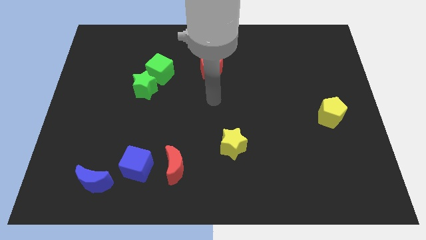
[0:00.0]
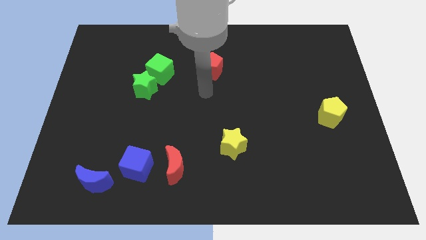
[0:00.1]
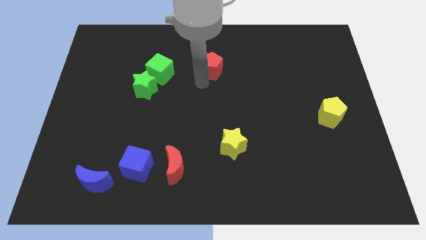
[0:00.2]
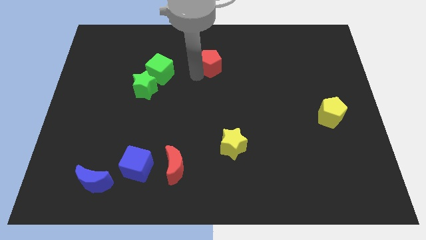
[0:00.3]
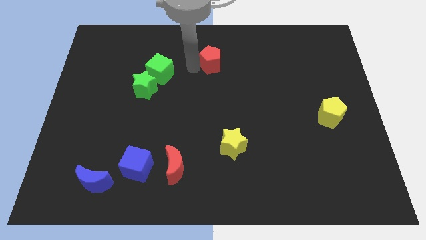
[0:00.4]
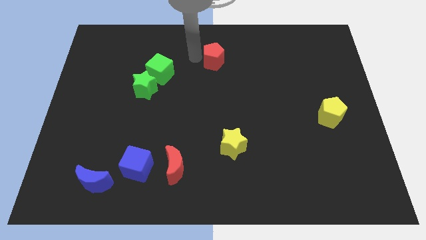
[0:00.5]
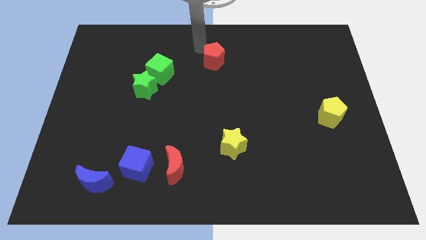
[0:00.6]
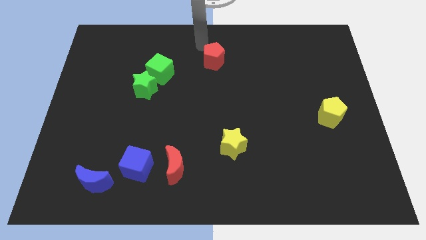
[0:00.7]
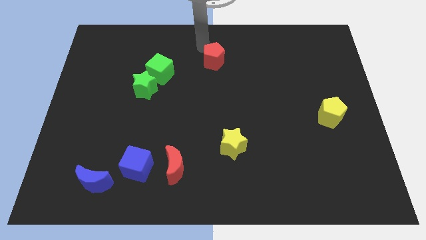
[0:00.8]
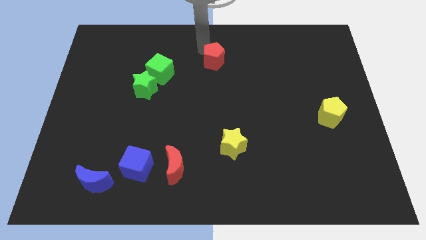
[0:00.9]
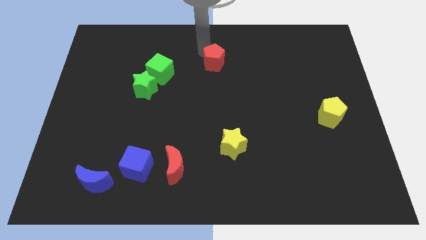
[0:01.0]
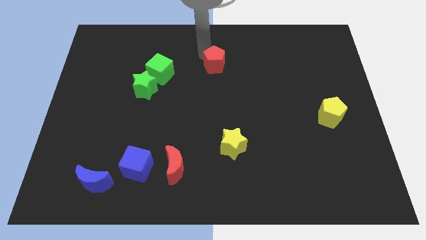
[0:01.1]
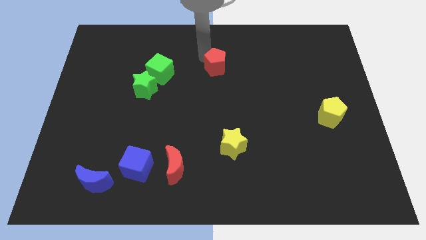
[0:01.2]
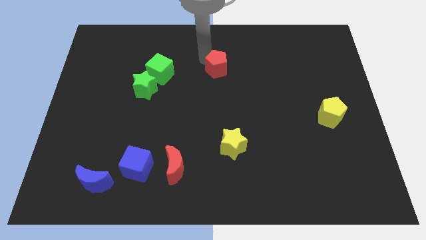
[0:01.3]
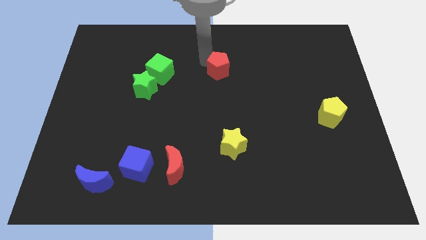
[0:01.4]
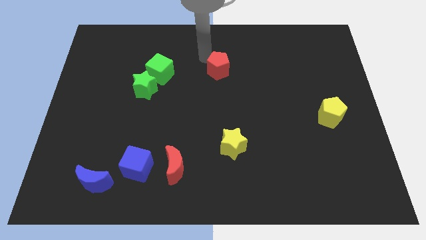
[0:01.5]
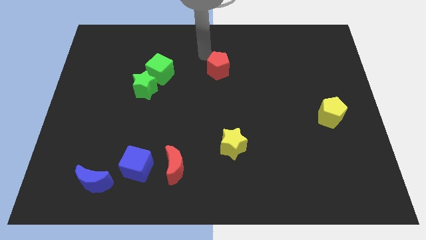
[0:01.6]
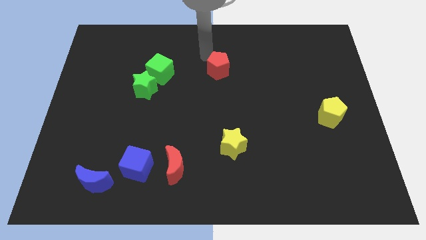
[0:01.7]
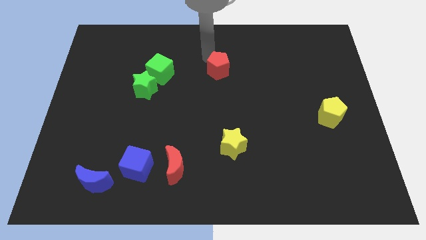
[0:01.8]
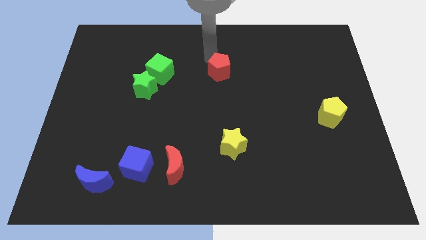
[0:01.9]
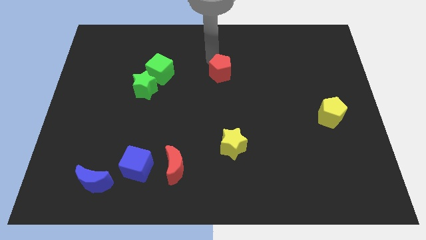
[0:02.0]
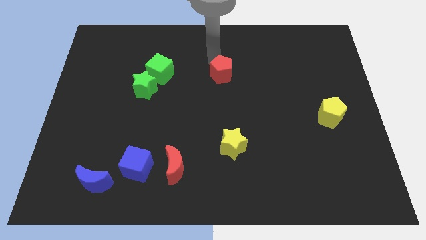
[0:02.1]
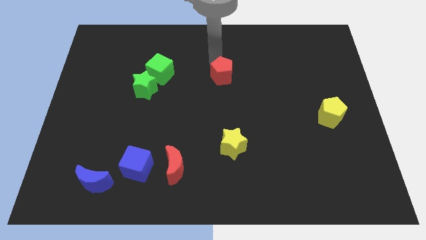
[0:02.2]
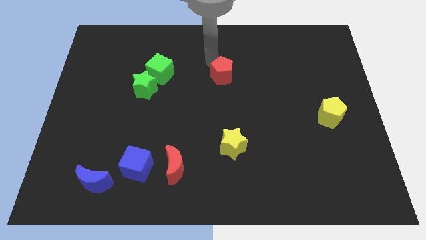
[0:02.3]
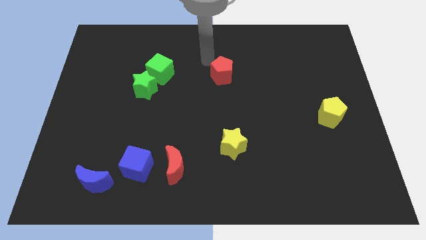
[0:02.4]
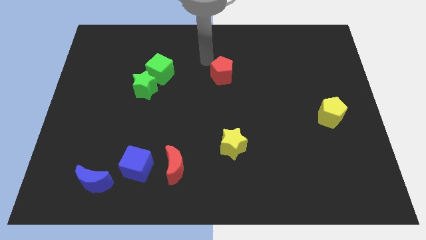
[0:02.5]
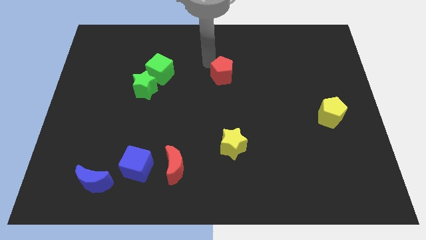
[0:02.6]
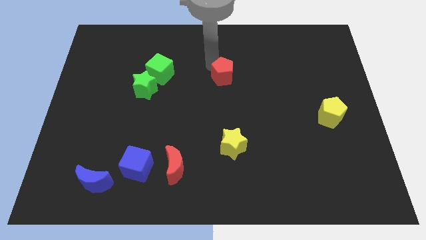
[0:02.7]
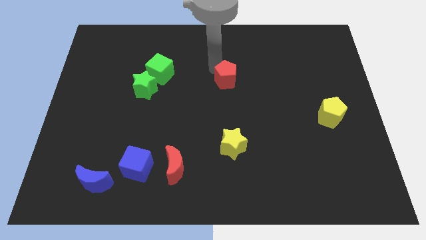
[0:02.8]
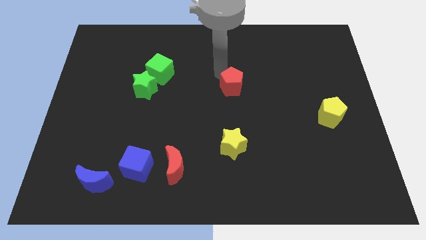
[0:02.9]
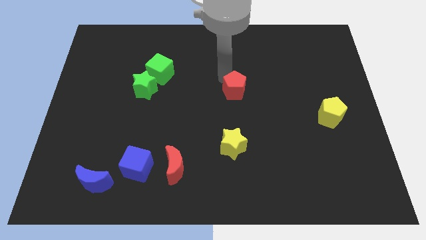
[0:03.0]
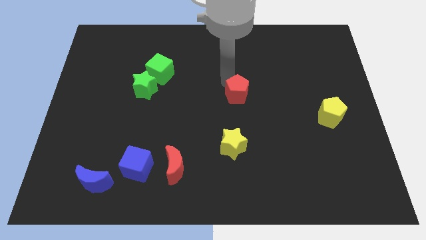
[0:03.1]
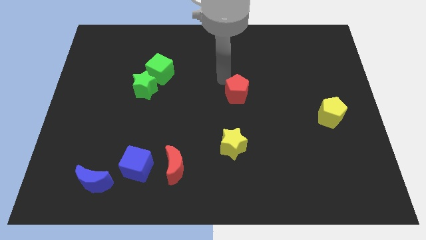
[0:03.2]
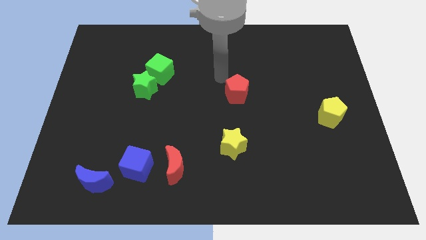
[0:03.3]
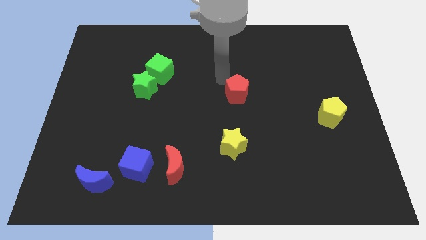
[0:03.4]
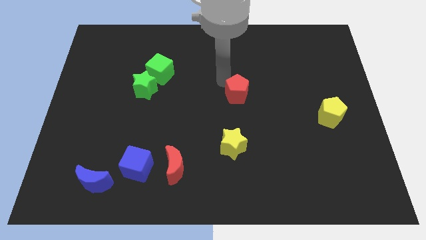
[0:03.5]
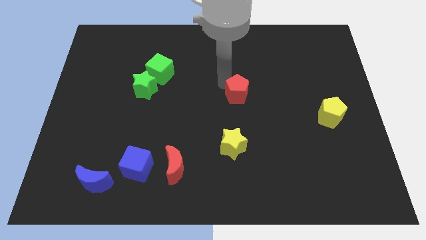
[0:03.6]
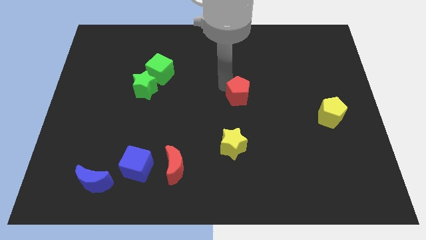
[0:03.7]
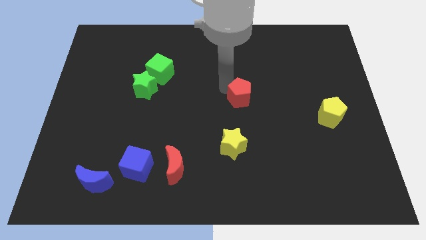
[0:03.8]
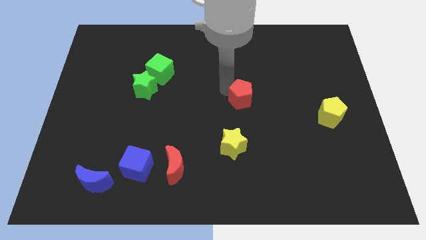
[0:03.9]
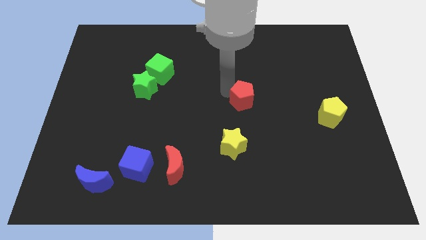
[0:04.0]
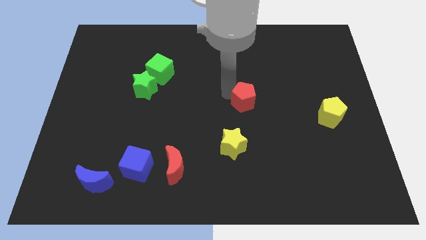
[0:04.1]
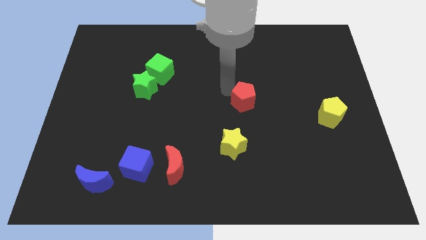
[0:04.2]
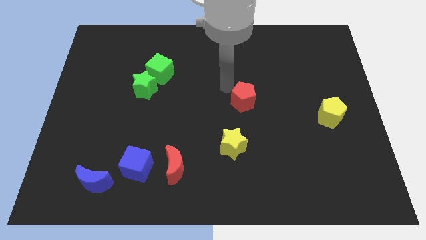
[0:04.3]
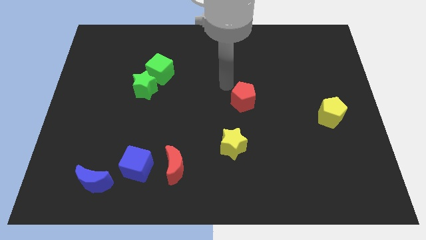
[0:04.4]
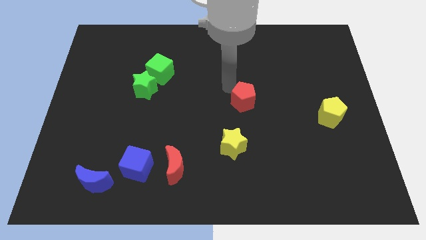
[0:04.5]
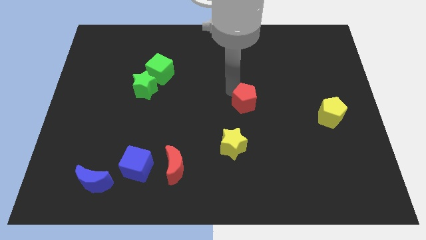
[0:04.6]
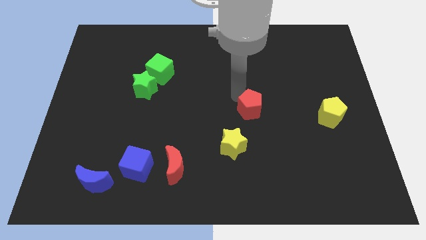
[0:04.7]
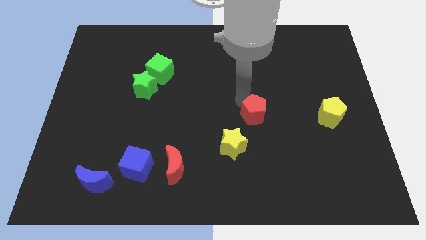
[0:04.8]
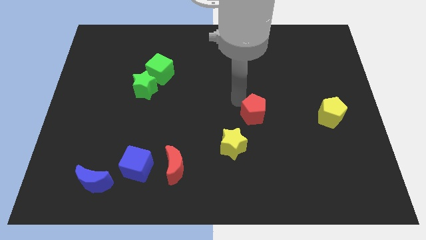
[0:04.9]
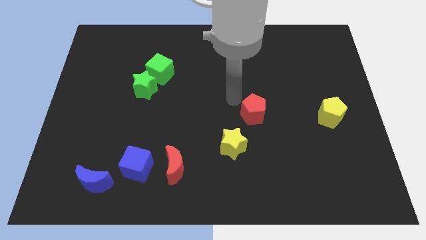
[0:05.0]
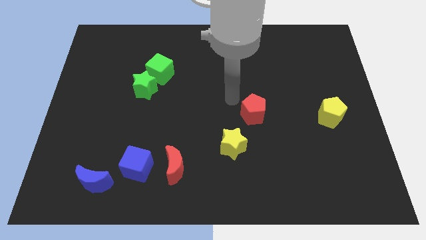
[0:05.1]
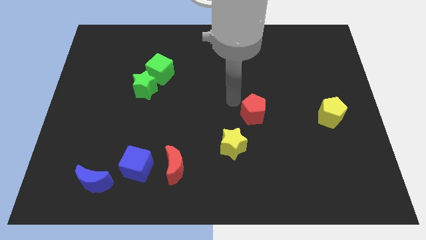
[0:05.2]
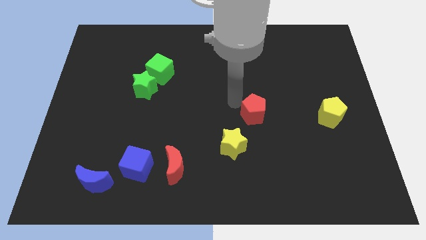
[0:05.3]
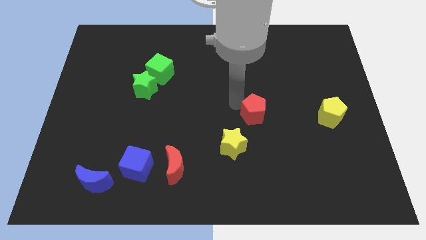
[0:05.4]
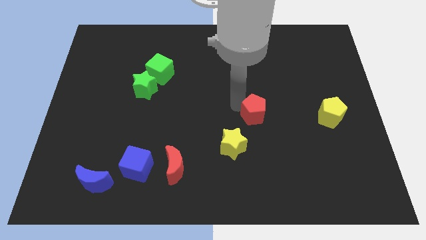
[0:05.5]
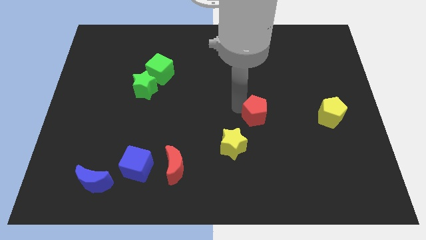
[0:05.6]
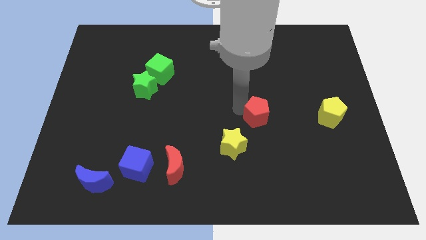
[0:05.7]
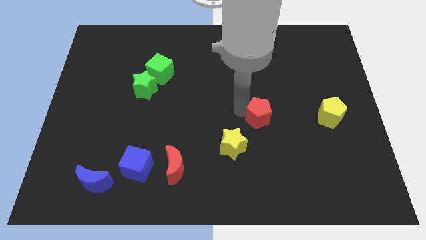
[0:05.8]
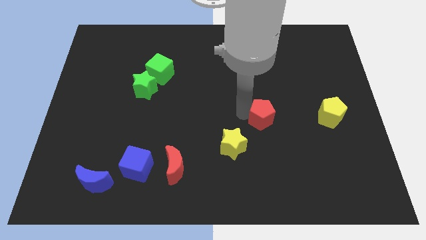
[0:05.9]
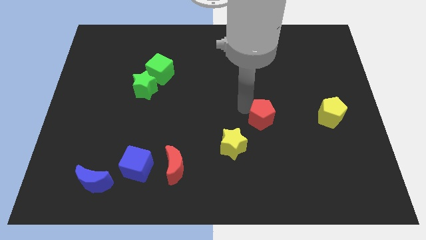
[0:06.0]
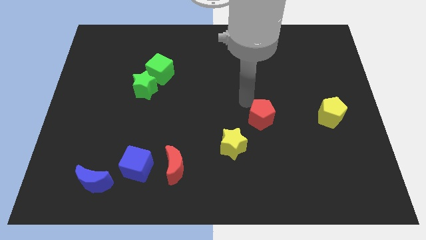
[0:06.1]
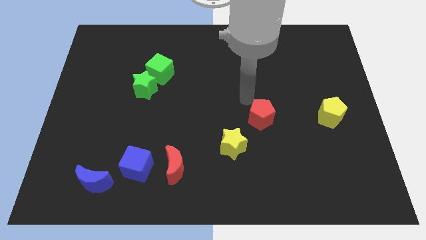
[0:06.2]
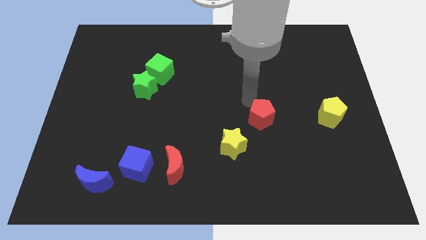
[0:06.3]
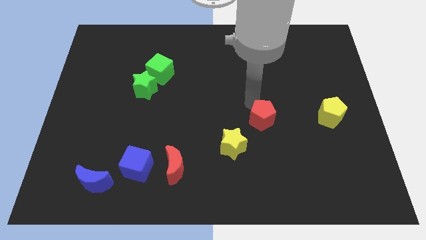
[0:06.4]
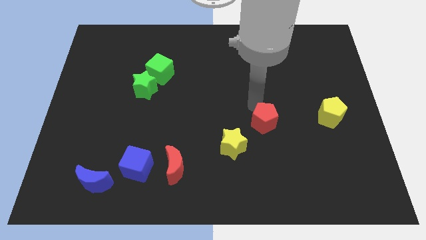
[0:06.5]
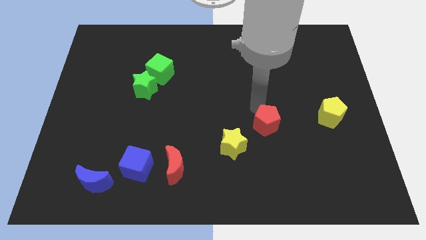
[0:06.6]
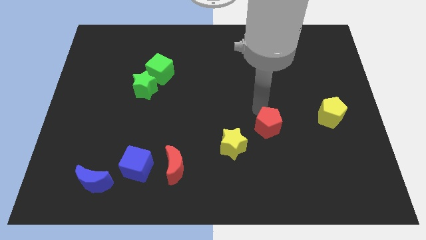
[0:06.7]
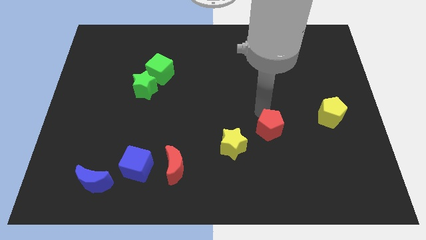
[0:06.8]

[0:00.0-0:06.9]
push the red pentagon to the right of the yellow star
